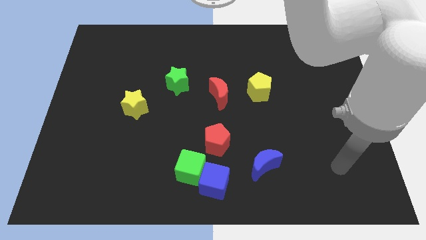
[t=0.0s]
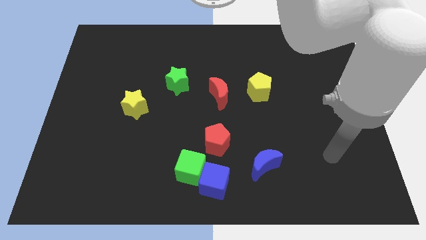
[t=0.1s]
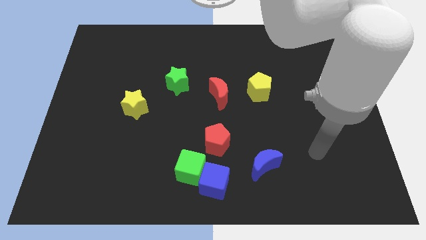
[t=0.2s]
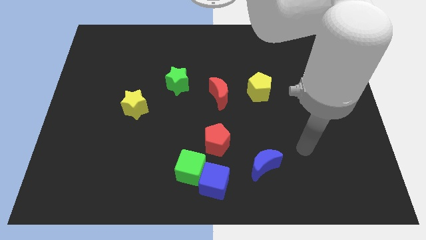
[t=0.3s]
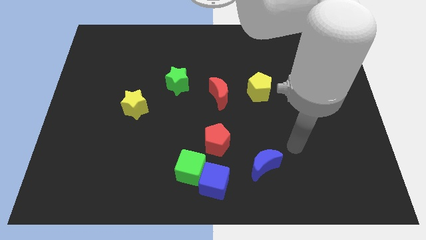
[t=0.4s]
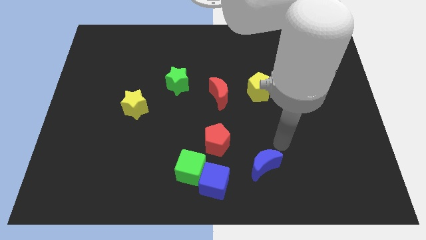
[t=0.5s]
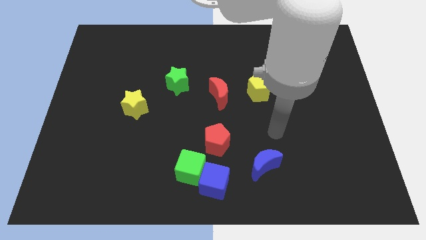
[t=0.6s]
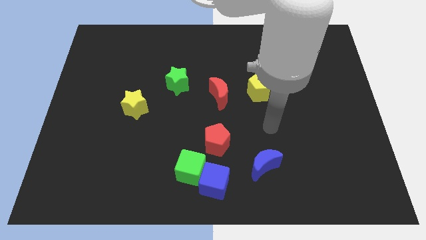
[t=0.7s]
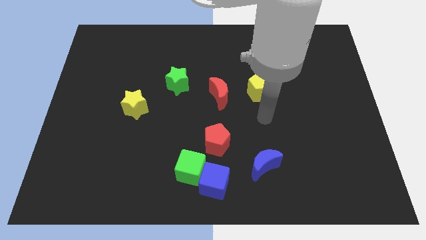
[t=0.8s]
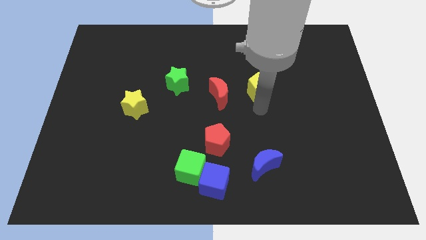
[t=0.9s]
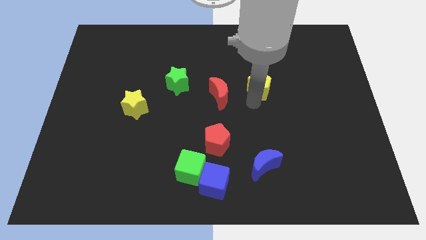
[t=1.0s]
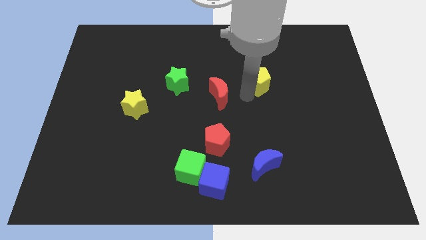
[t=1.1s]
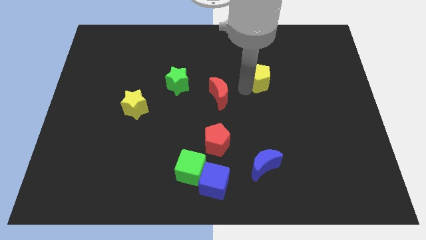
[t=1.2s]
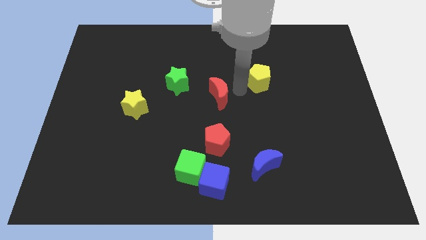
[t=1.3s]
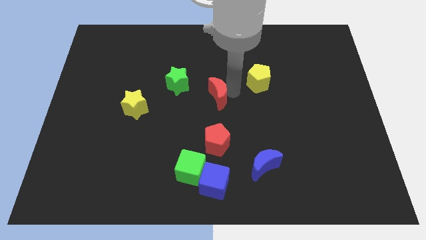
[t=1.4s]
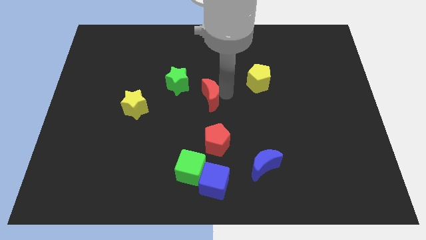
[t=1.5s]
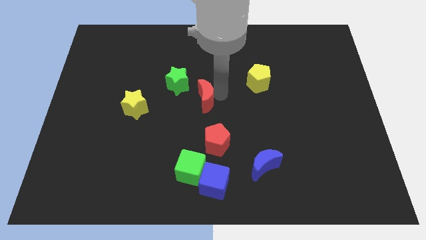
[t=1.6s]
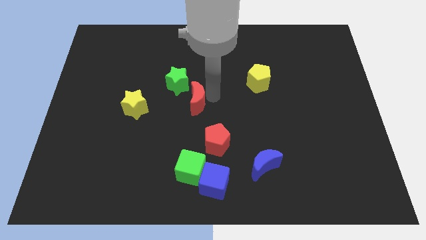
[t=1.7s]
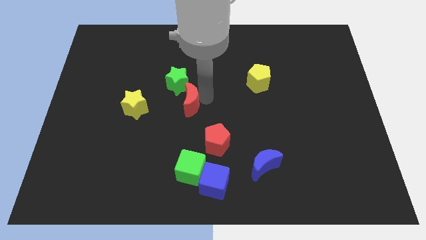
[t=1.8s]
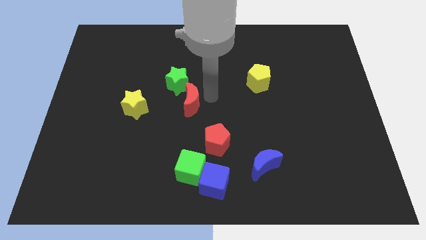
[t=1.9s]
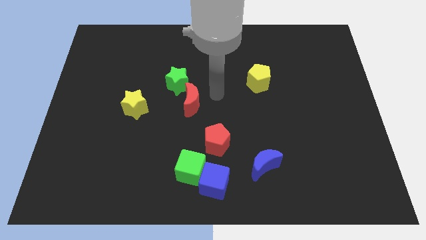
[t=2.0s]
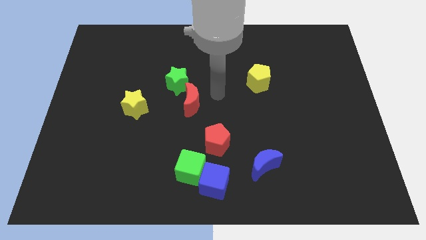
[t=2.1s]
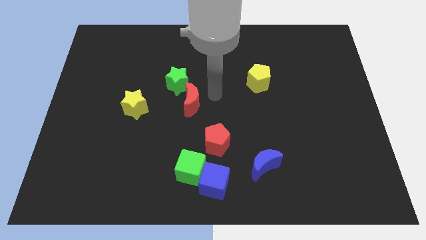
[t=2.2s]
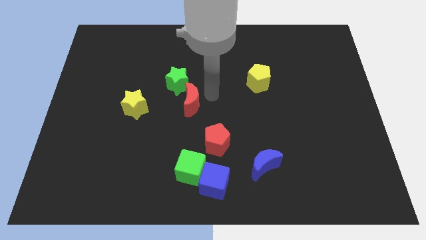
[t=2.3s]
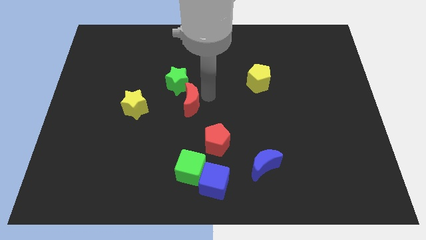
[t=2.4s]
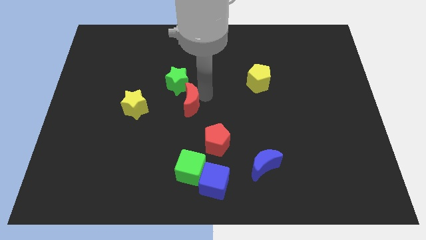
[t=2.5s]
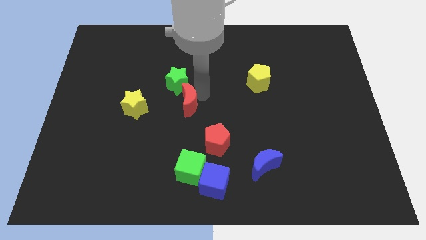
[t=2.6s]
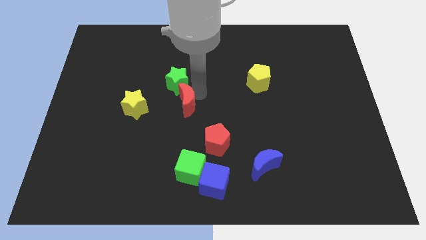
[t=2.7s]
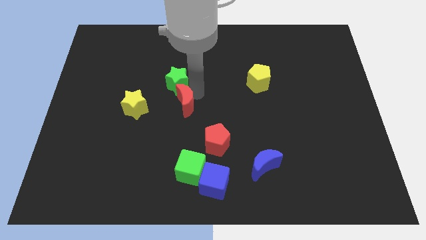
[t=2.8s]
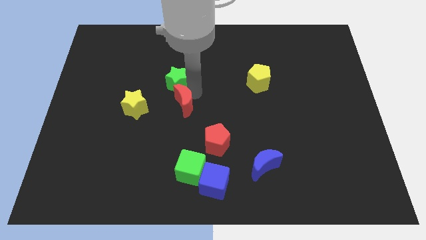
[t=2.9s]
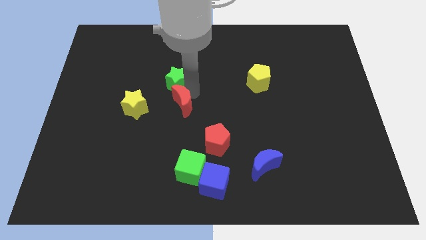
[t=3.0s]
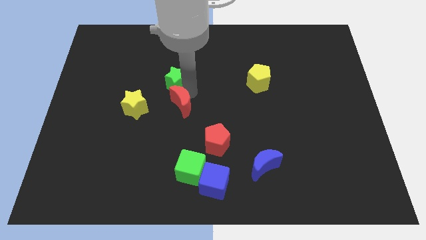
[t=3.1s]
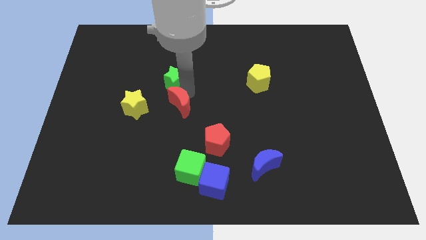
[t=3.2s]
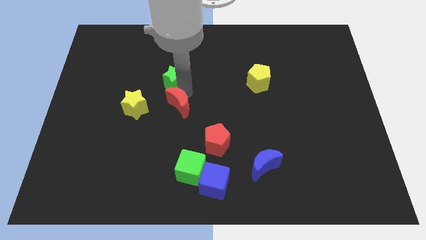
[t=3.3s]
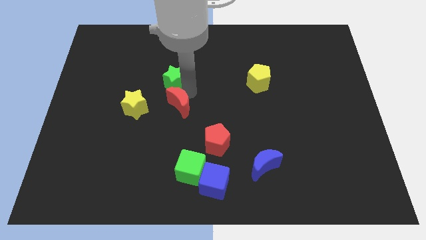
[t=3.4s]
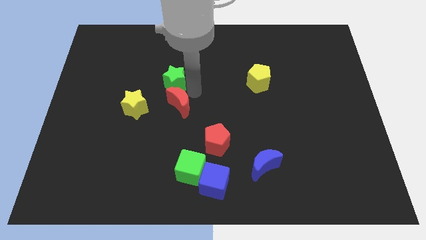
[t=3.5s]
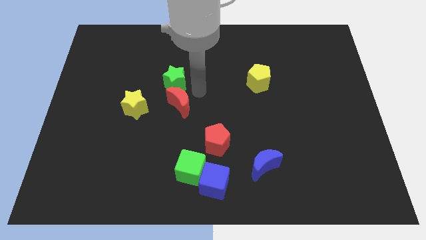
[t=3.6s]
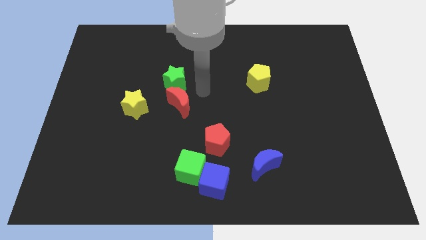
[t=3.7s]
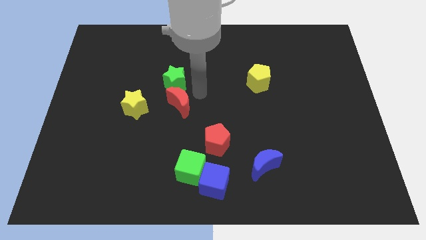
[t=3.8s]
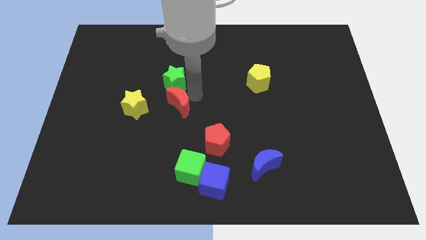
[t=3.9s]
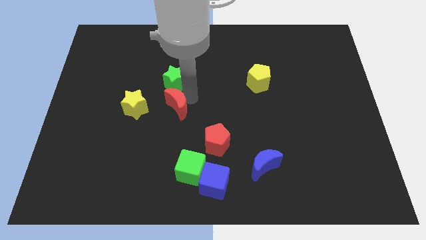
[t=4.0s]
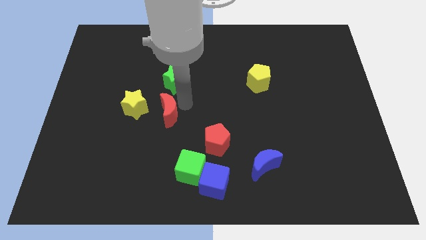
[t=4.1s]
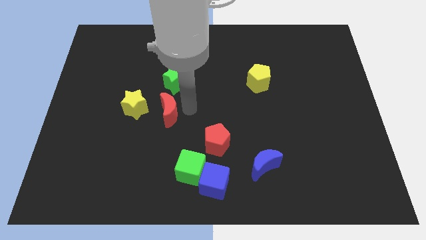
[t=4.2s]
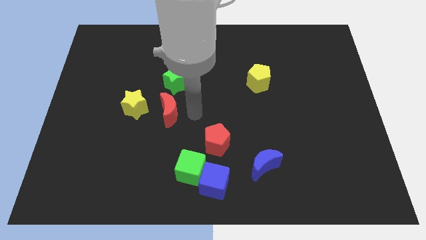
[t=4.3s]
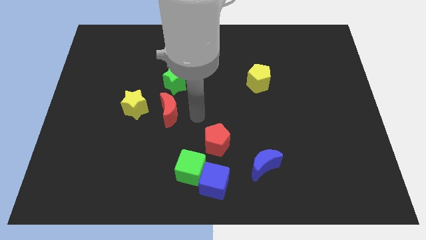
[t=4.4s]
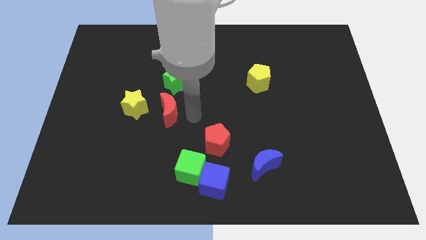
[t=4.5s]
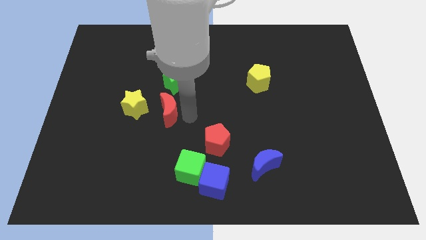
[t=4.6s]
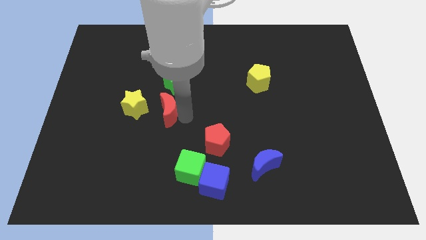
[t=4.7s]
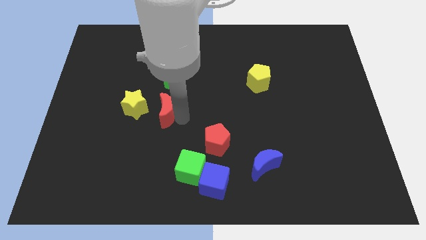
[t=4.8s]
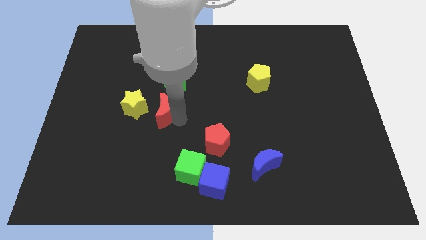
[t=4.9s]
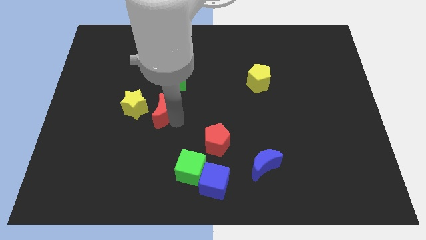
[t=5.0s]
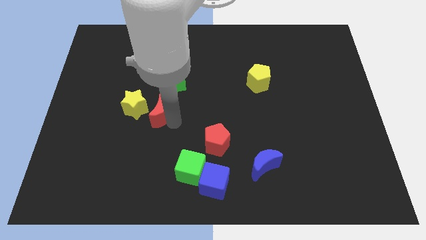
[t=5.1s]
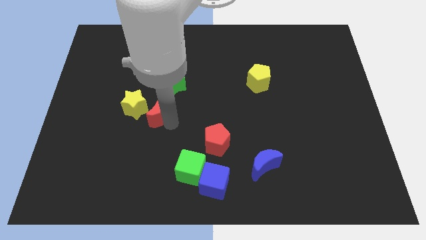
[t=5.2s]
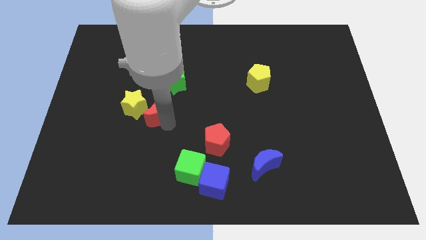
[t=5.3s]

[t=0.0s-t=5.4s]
move the red moon close to the yellow star

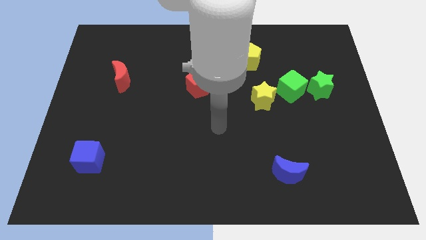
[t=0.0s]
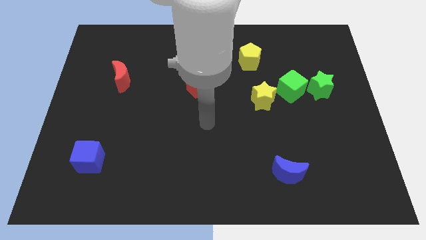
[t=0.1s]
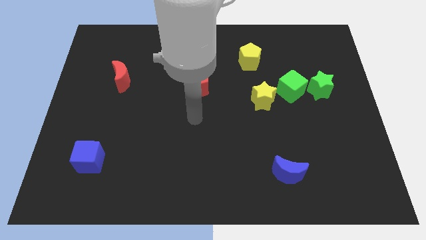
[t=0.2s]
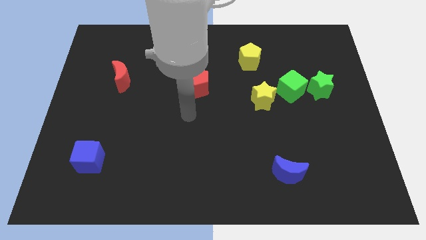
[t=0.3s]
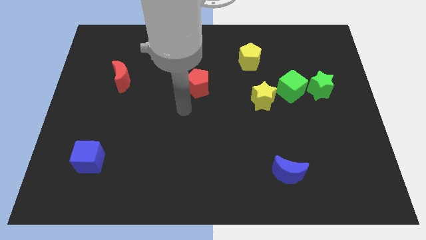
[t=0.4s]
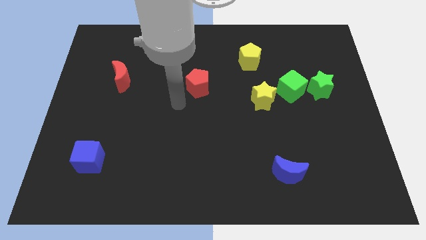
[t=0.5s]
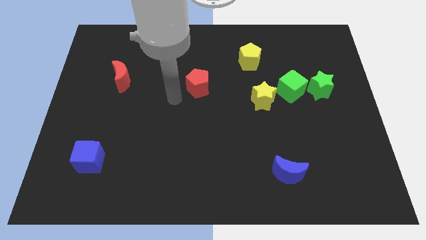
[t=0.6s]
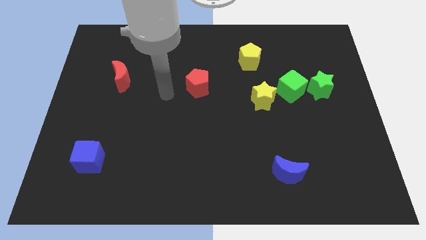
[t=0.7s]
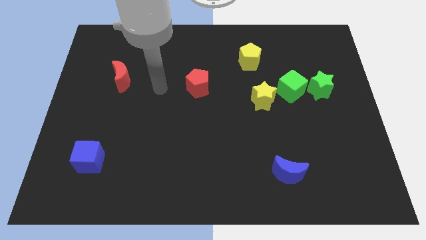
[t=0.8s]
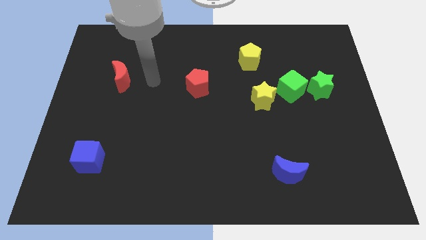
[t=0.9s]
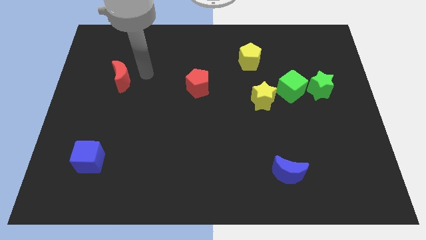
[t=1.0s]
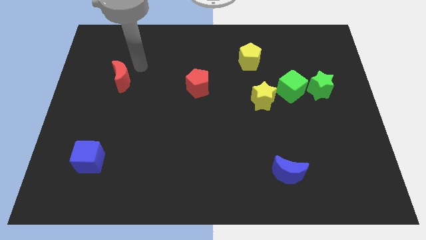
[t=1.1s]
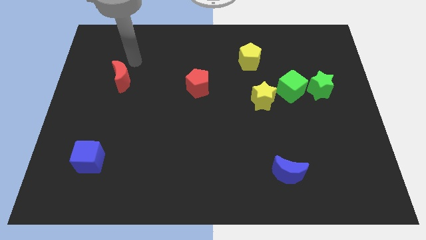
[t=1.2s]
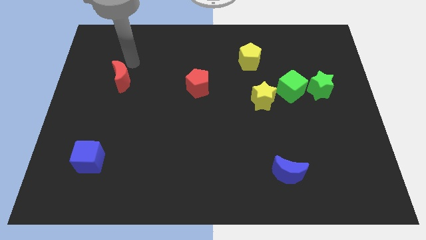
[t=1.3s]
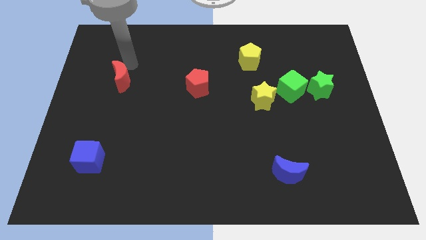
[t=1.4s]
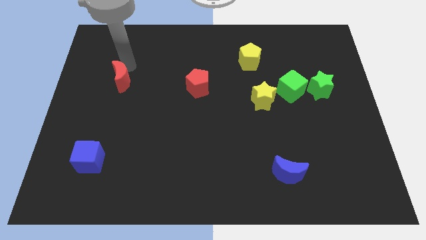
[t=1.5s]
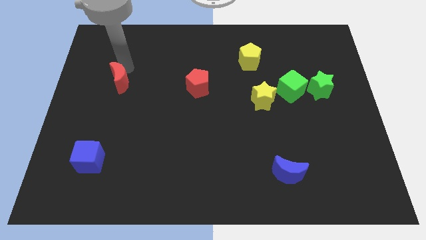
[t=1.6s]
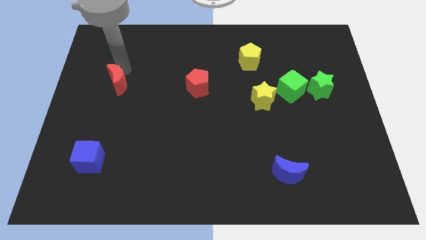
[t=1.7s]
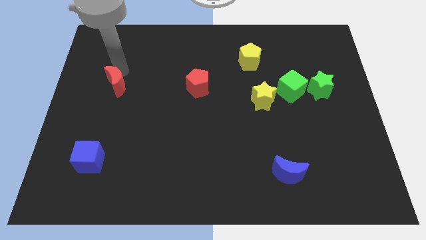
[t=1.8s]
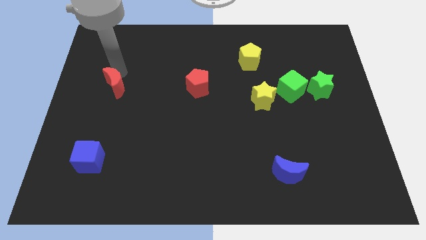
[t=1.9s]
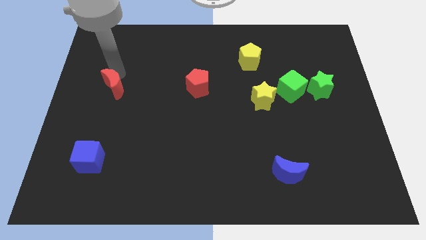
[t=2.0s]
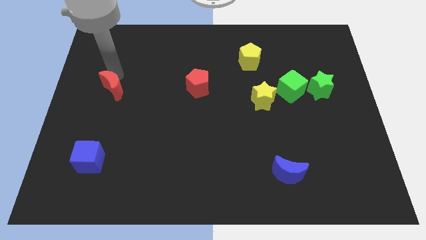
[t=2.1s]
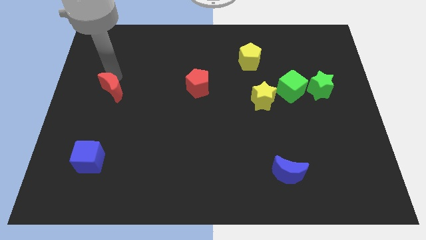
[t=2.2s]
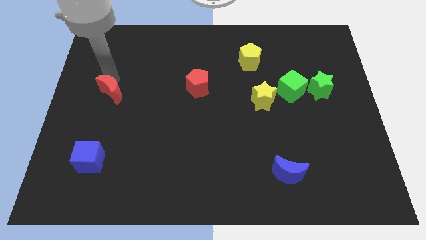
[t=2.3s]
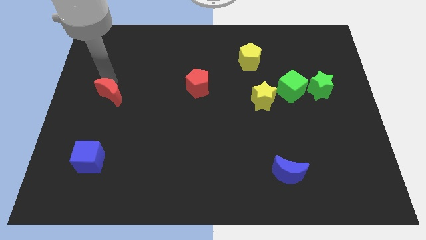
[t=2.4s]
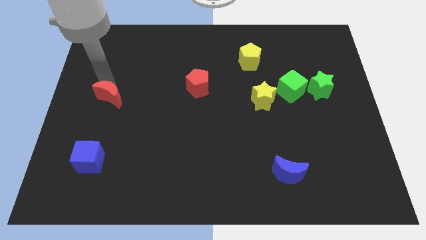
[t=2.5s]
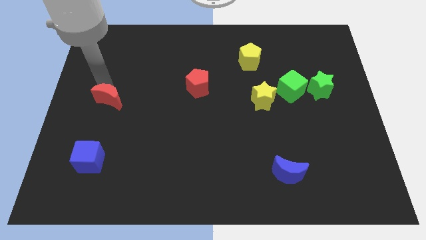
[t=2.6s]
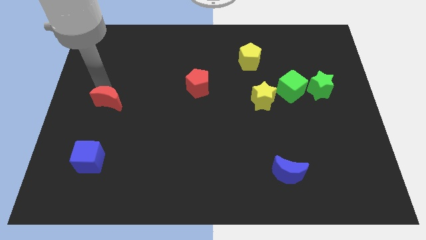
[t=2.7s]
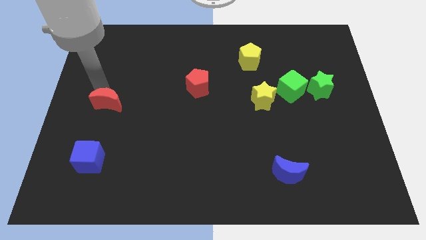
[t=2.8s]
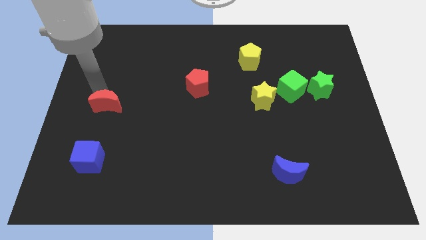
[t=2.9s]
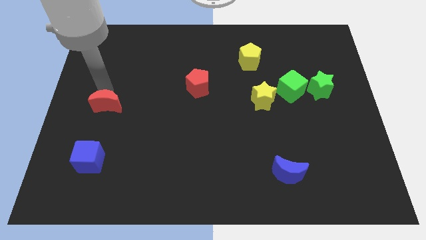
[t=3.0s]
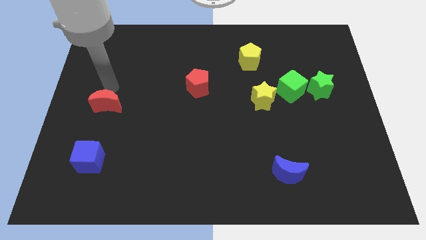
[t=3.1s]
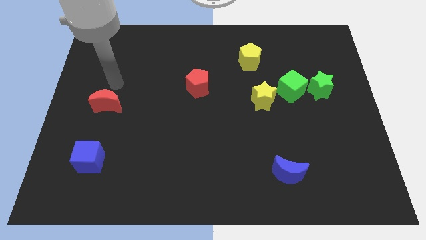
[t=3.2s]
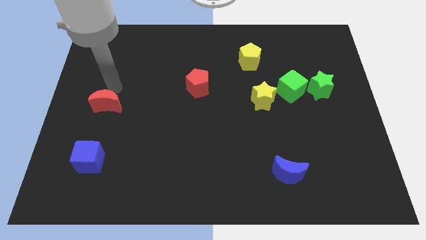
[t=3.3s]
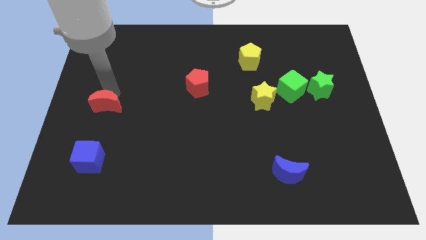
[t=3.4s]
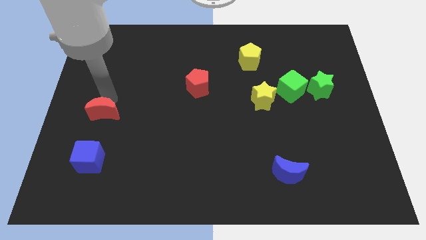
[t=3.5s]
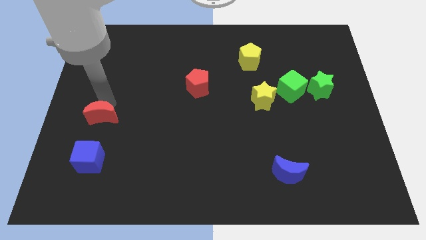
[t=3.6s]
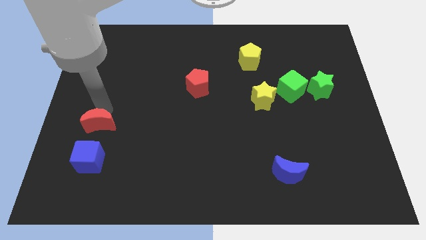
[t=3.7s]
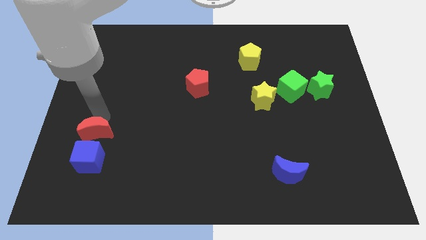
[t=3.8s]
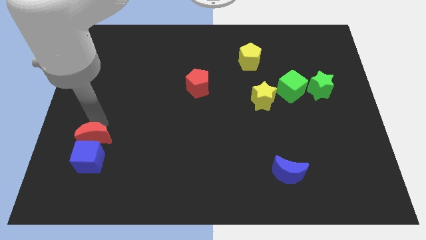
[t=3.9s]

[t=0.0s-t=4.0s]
push the red moon next to the blue cube
